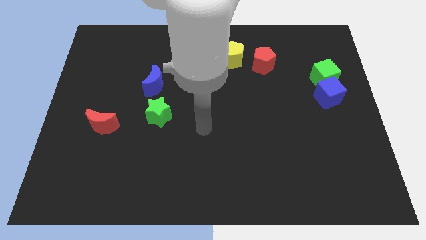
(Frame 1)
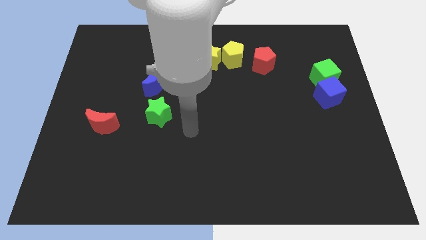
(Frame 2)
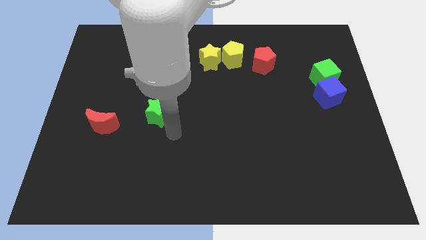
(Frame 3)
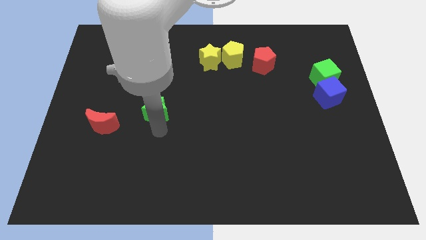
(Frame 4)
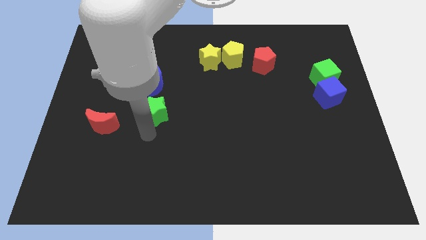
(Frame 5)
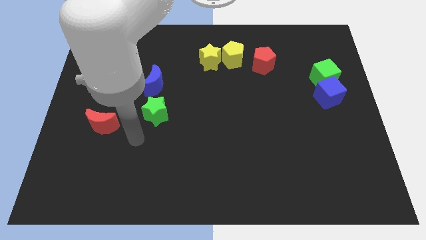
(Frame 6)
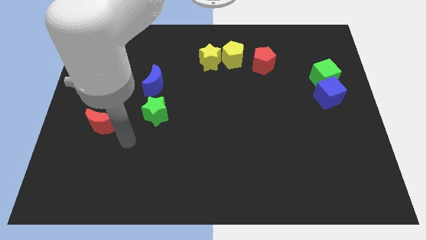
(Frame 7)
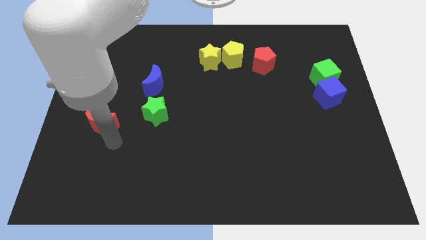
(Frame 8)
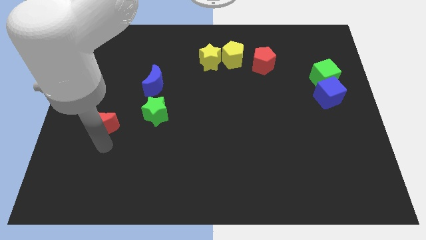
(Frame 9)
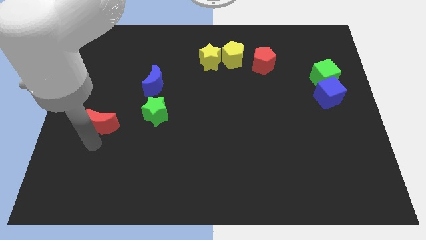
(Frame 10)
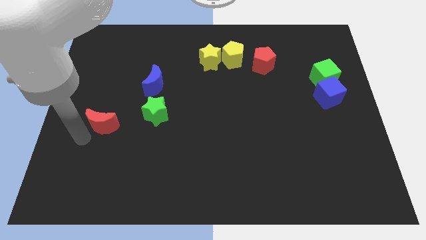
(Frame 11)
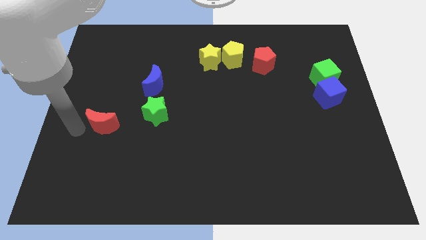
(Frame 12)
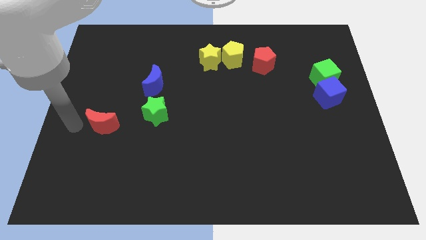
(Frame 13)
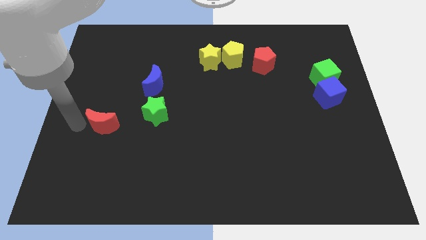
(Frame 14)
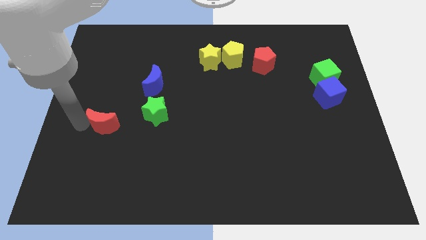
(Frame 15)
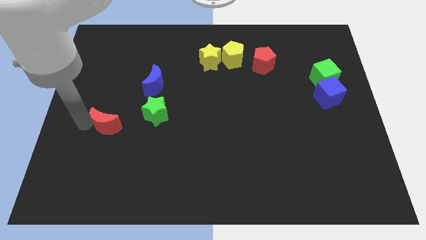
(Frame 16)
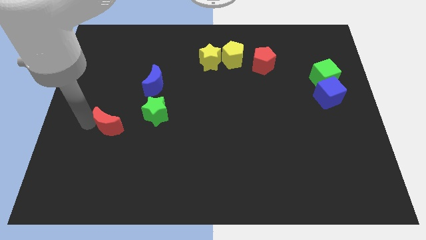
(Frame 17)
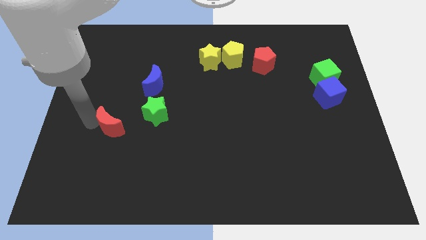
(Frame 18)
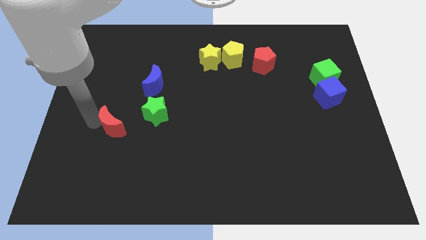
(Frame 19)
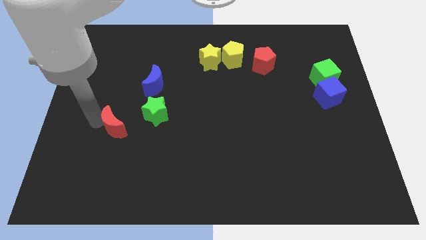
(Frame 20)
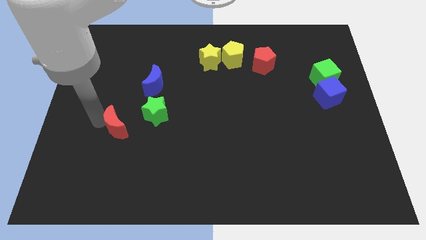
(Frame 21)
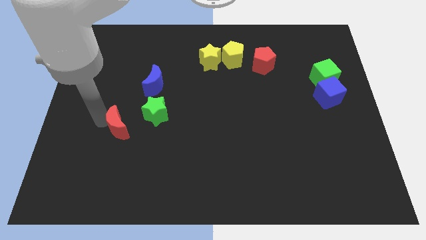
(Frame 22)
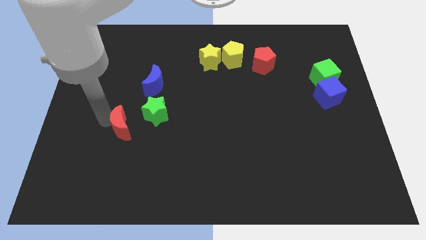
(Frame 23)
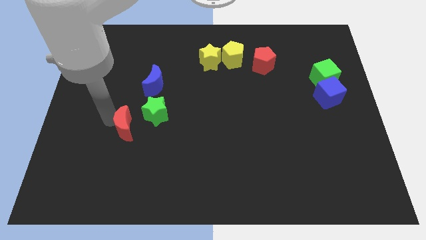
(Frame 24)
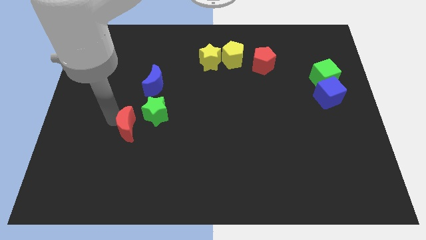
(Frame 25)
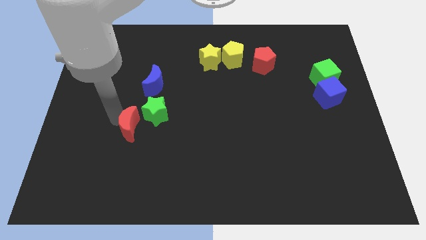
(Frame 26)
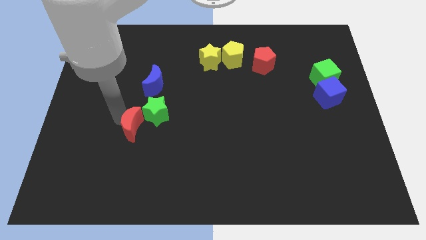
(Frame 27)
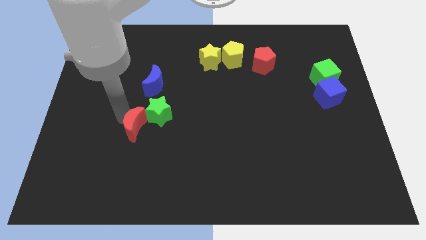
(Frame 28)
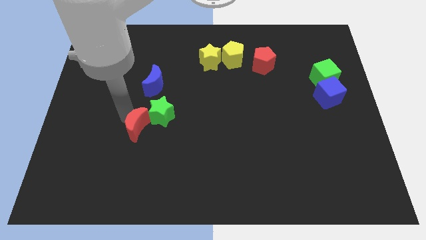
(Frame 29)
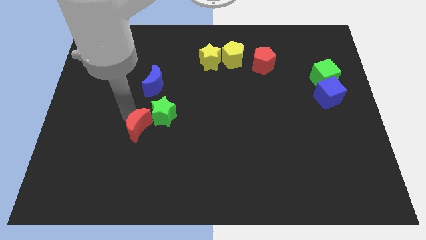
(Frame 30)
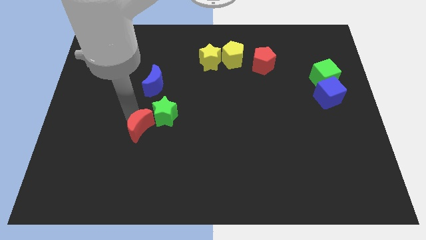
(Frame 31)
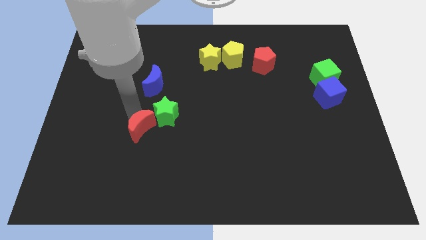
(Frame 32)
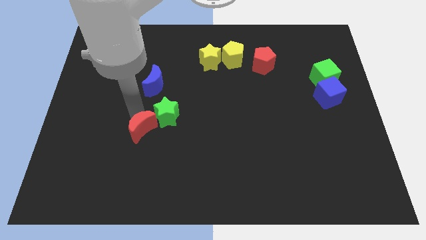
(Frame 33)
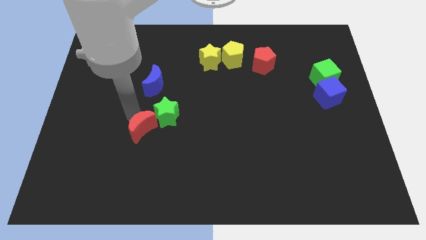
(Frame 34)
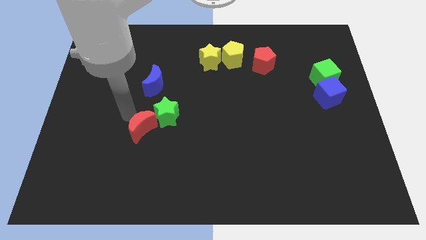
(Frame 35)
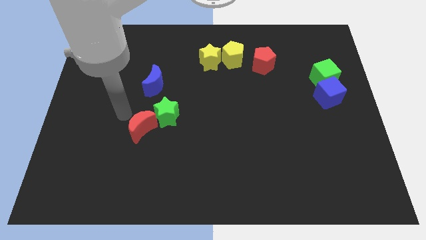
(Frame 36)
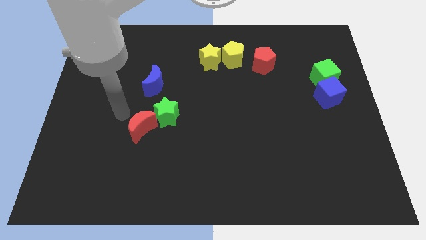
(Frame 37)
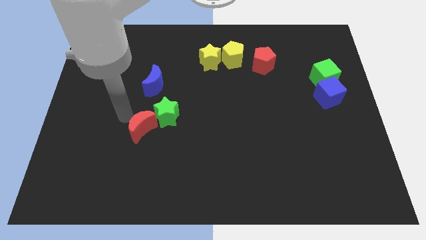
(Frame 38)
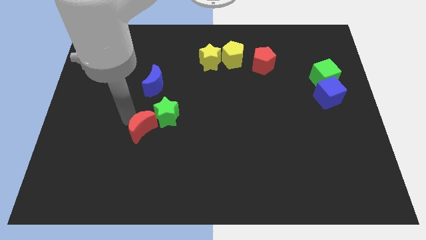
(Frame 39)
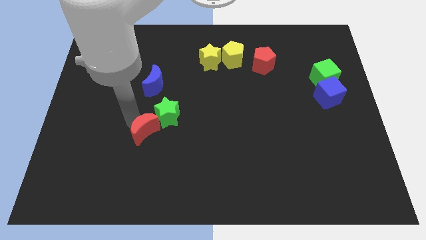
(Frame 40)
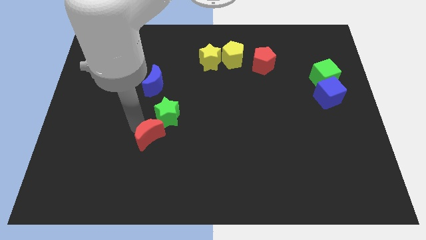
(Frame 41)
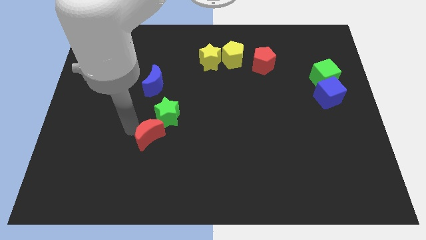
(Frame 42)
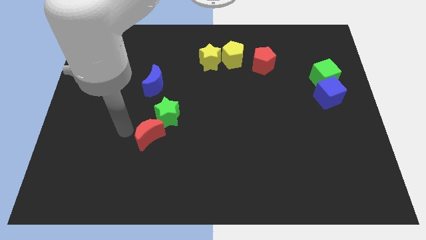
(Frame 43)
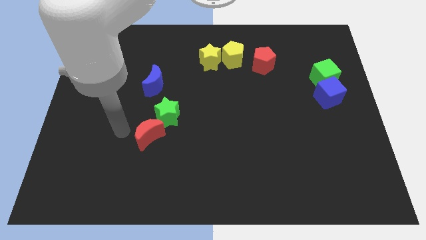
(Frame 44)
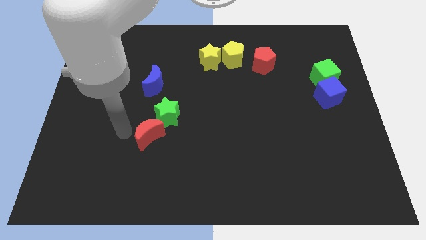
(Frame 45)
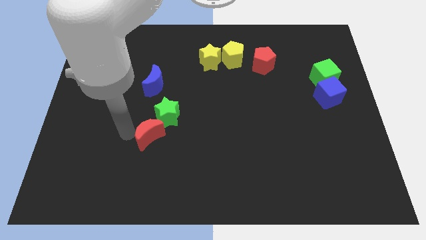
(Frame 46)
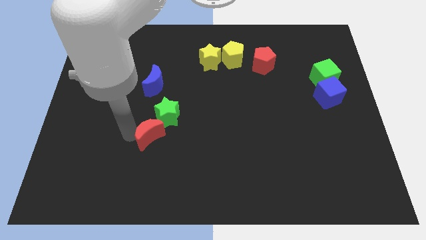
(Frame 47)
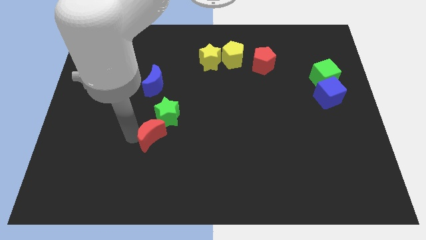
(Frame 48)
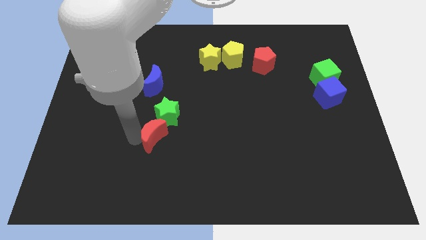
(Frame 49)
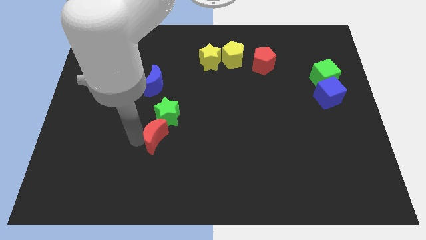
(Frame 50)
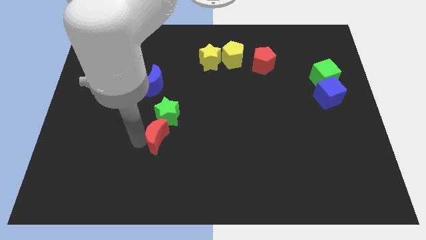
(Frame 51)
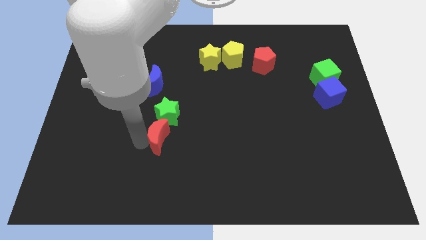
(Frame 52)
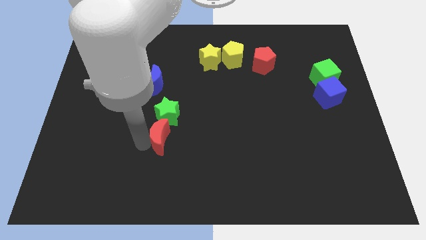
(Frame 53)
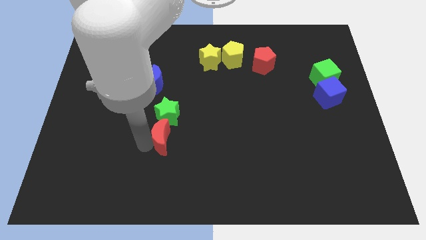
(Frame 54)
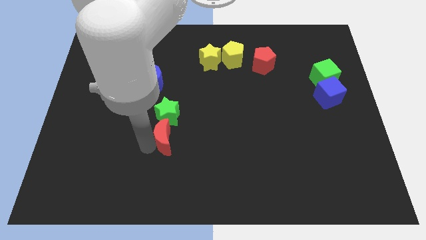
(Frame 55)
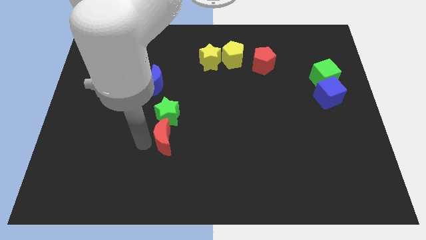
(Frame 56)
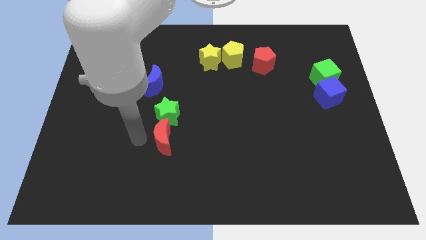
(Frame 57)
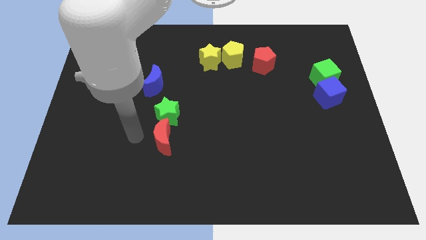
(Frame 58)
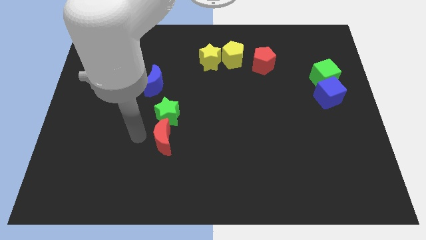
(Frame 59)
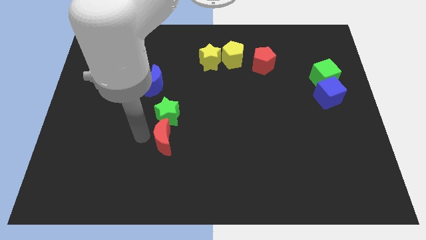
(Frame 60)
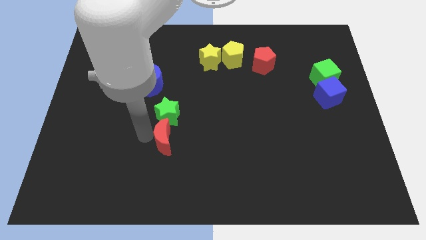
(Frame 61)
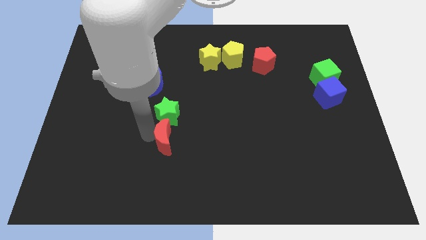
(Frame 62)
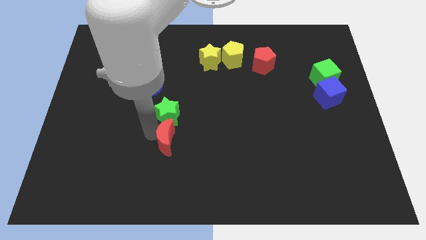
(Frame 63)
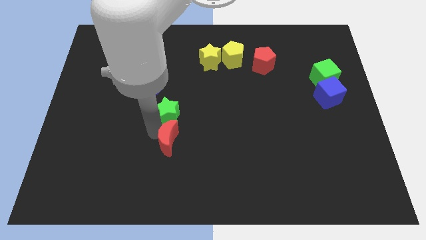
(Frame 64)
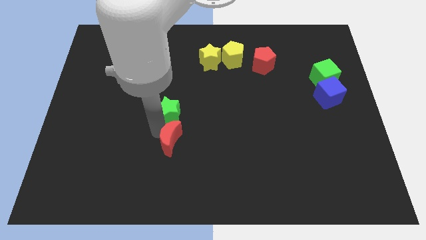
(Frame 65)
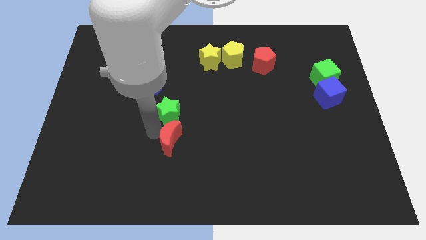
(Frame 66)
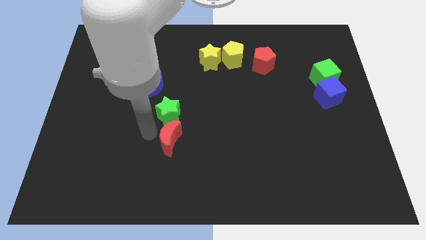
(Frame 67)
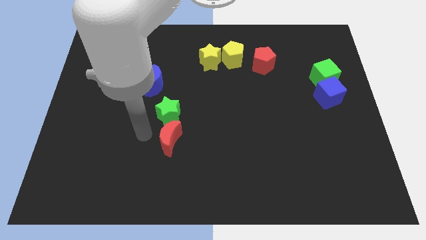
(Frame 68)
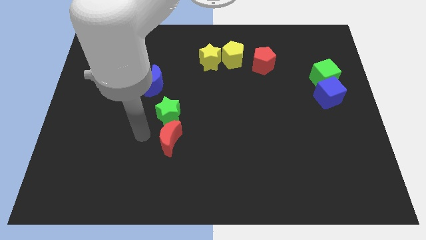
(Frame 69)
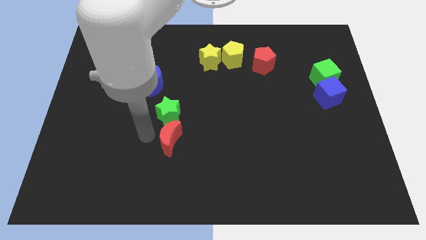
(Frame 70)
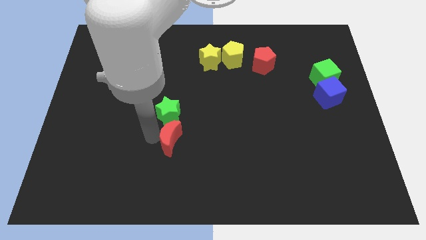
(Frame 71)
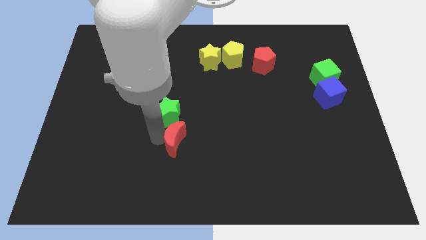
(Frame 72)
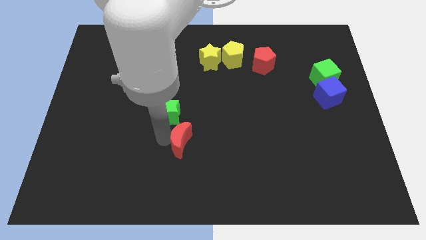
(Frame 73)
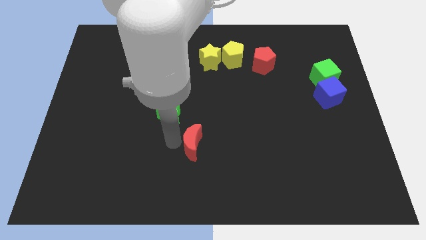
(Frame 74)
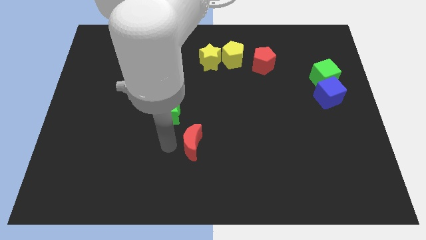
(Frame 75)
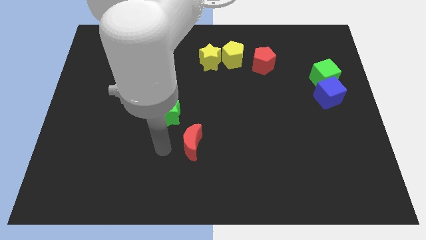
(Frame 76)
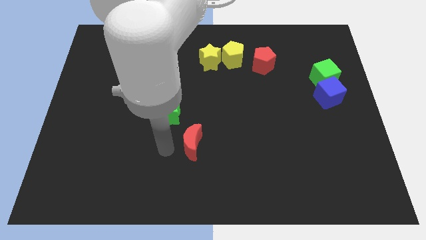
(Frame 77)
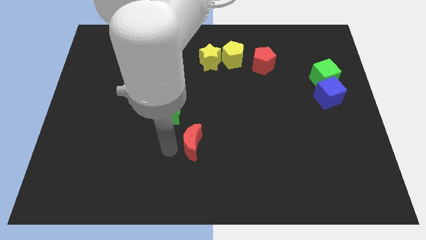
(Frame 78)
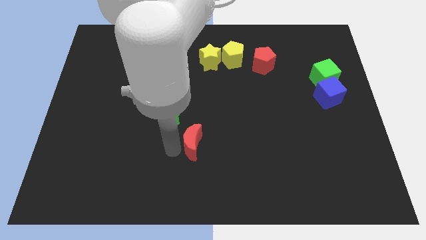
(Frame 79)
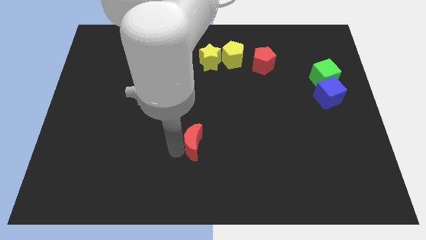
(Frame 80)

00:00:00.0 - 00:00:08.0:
push the red moon to the right
